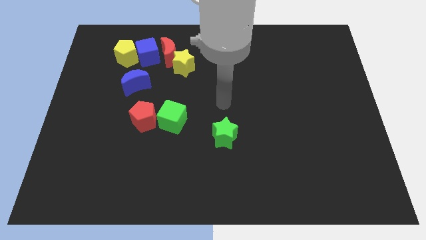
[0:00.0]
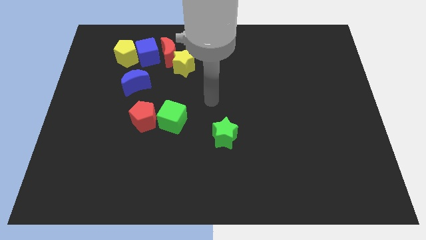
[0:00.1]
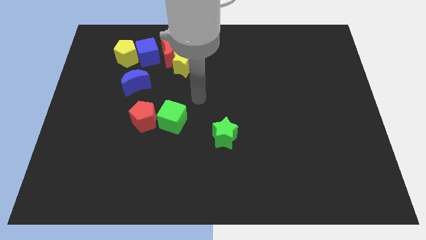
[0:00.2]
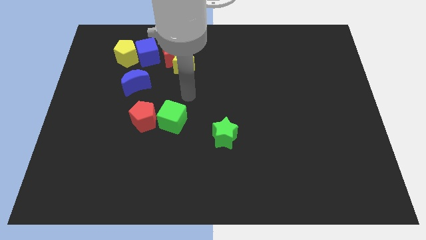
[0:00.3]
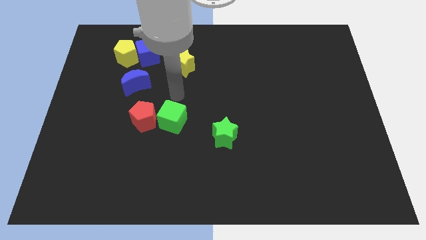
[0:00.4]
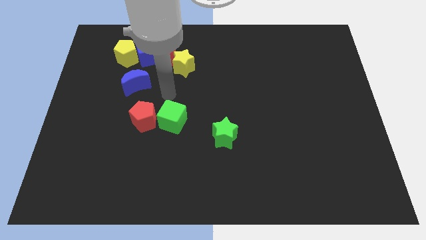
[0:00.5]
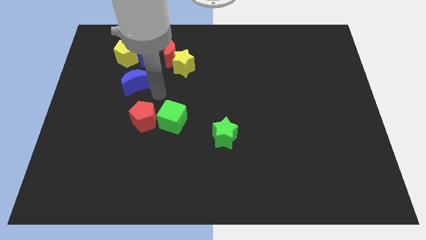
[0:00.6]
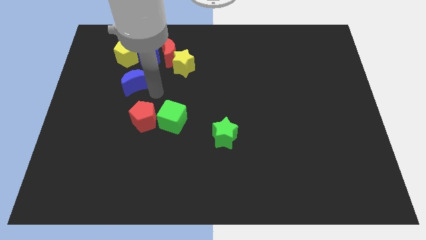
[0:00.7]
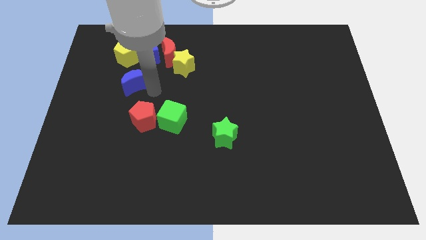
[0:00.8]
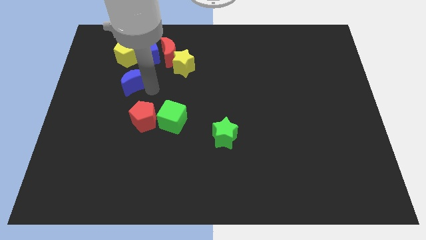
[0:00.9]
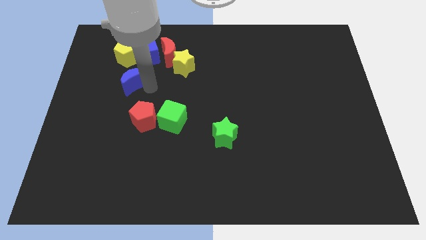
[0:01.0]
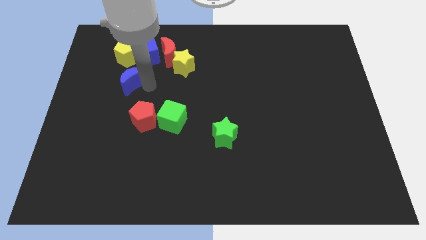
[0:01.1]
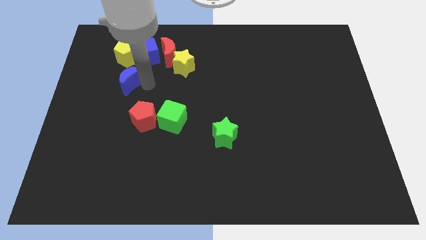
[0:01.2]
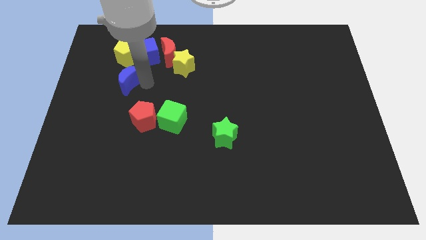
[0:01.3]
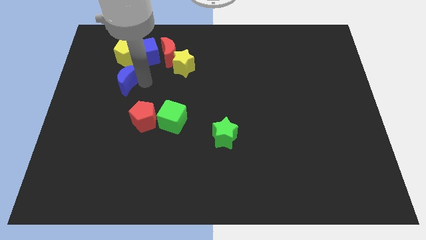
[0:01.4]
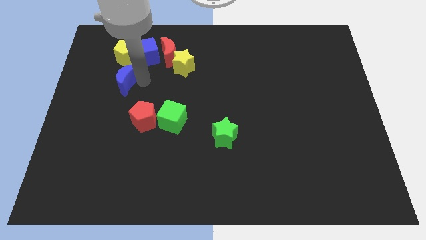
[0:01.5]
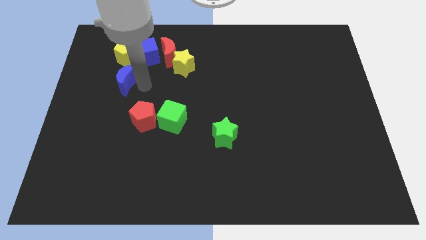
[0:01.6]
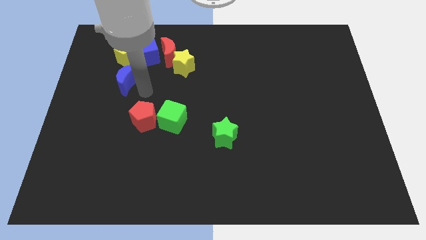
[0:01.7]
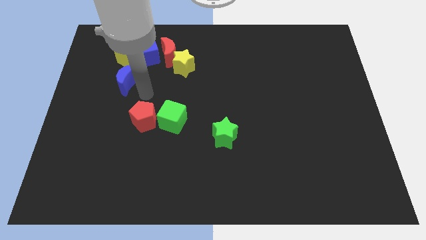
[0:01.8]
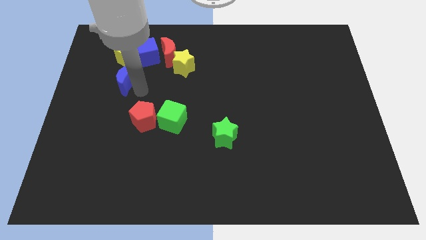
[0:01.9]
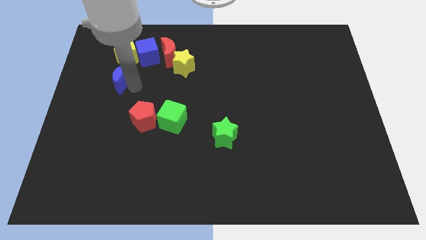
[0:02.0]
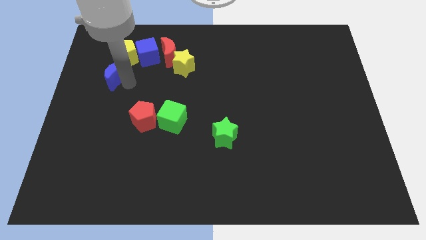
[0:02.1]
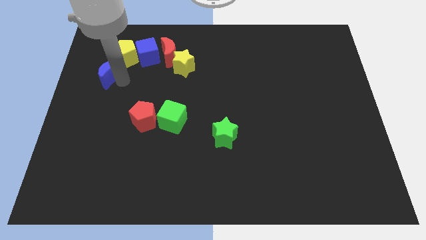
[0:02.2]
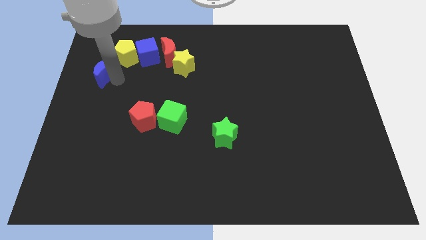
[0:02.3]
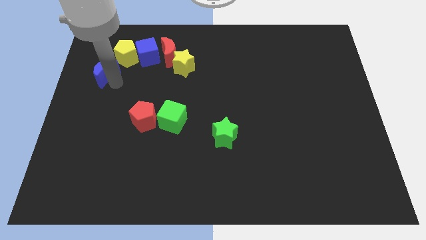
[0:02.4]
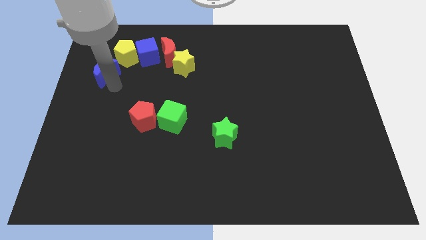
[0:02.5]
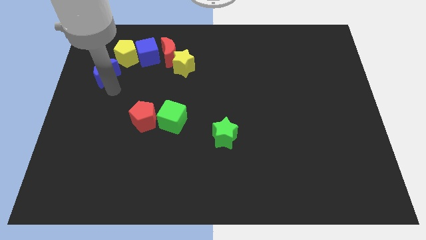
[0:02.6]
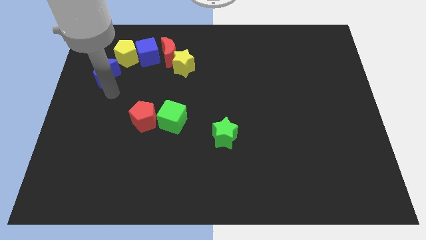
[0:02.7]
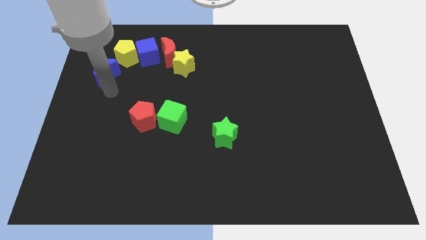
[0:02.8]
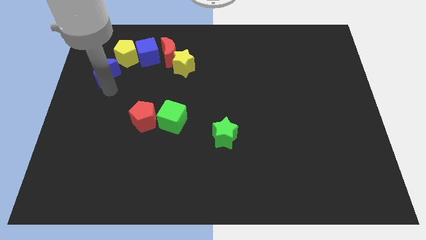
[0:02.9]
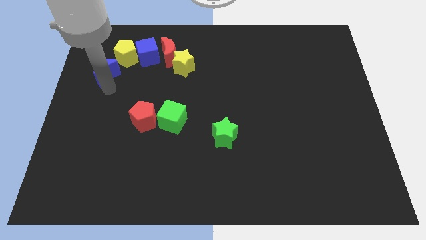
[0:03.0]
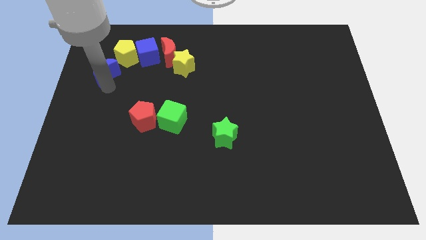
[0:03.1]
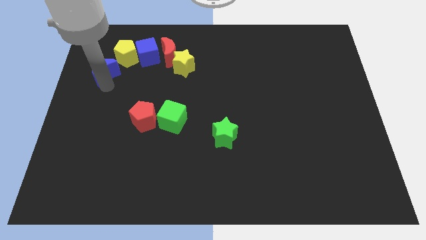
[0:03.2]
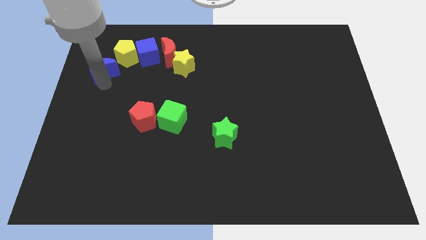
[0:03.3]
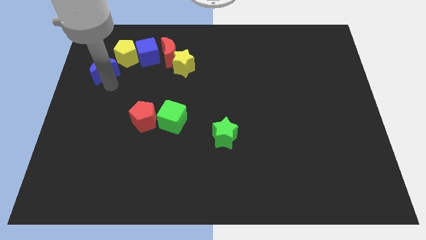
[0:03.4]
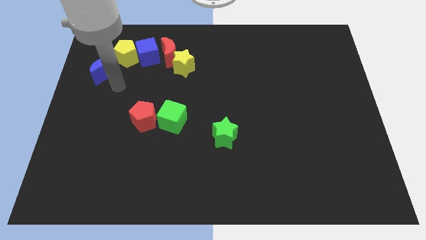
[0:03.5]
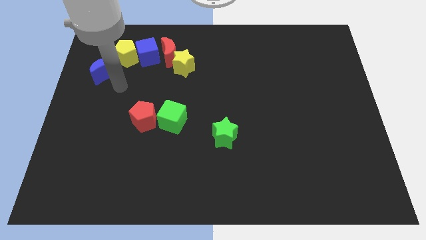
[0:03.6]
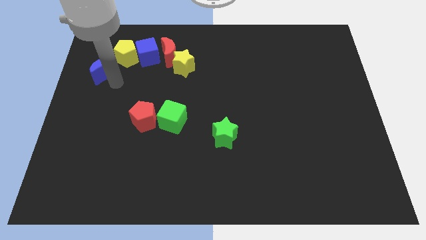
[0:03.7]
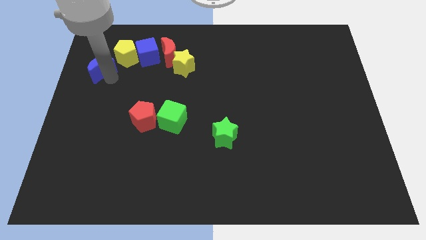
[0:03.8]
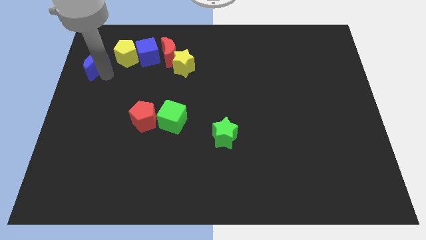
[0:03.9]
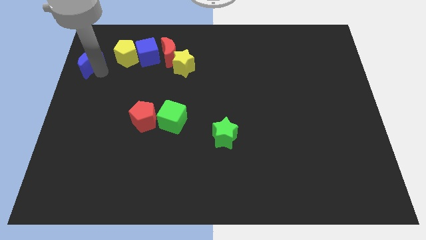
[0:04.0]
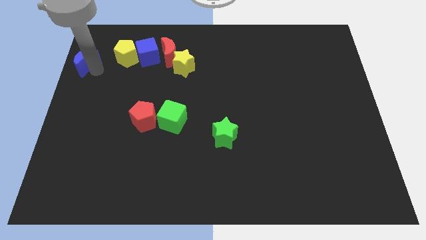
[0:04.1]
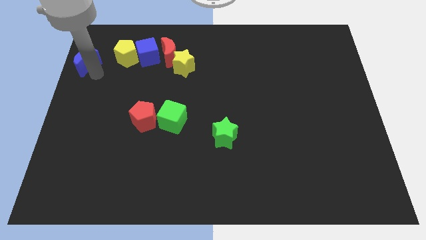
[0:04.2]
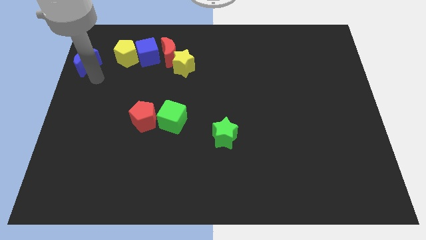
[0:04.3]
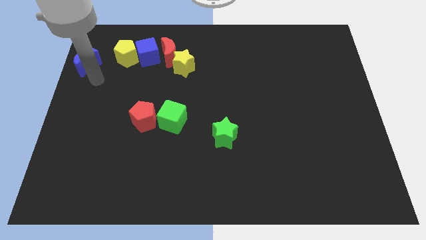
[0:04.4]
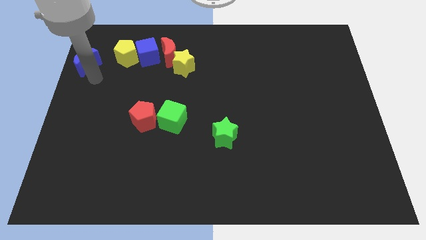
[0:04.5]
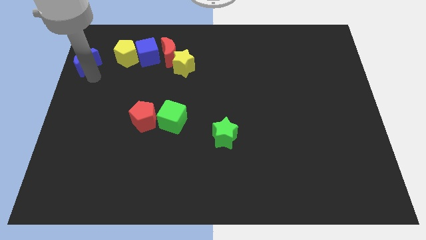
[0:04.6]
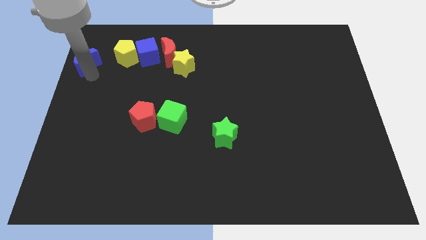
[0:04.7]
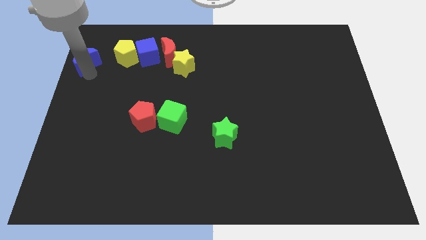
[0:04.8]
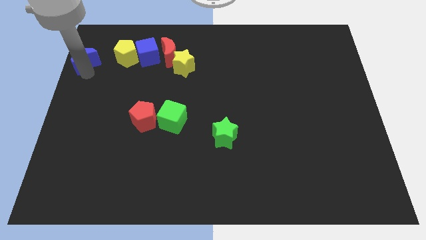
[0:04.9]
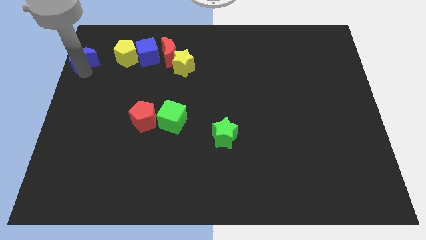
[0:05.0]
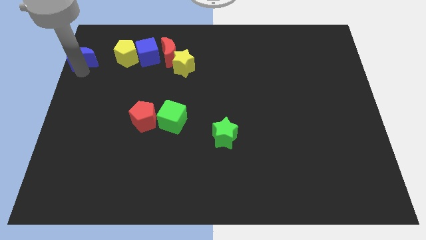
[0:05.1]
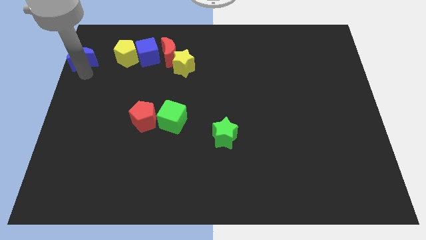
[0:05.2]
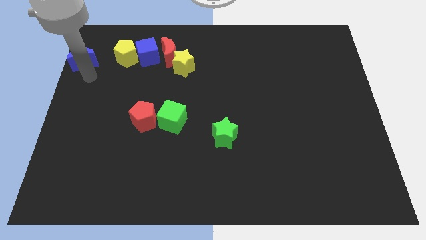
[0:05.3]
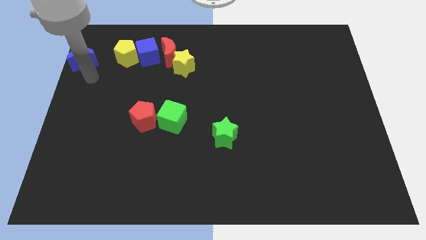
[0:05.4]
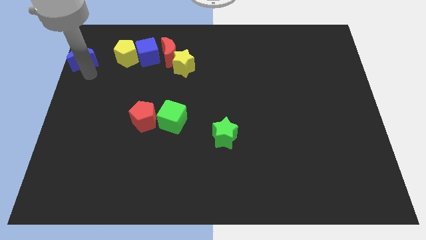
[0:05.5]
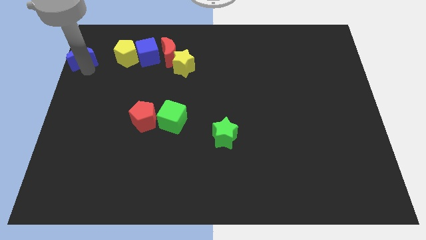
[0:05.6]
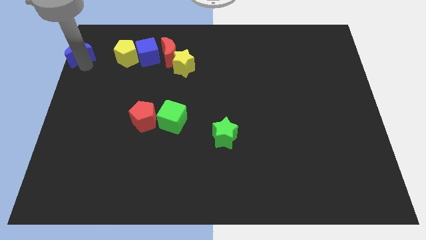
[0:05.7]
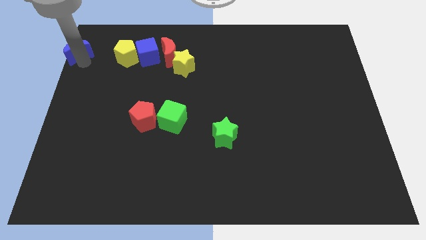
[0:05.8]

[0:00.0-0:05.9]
push the blue moon to the top left of the board

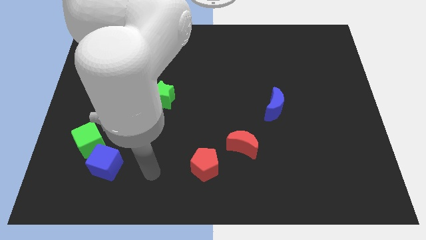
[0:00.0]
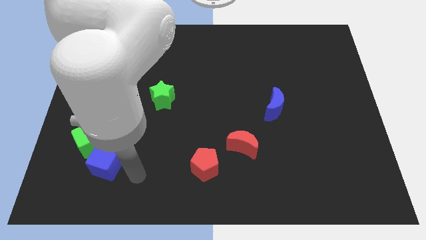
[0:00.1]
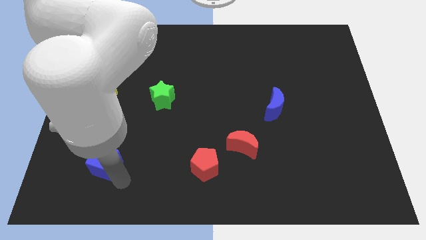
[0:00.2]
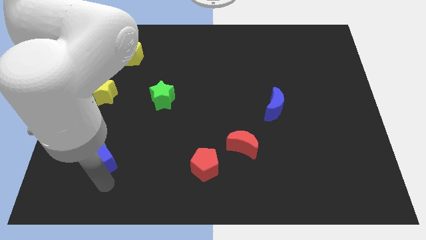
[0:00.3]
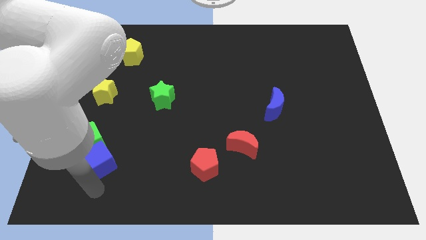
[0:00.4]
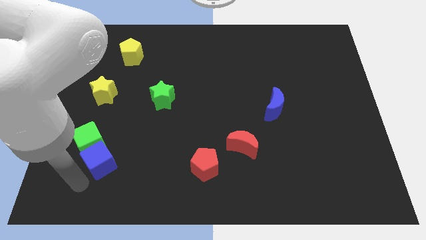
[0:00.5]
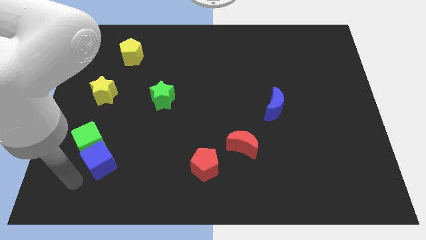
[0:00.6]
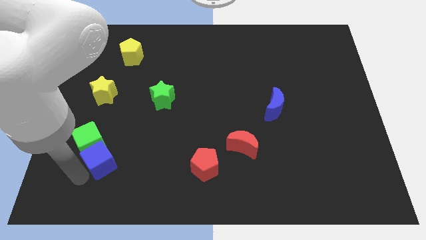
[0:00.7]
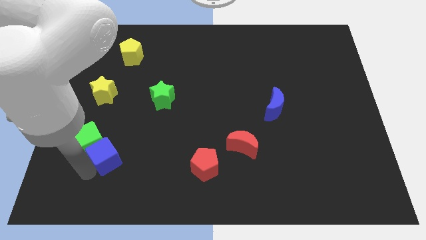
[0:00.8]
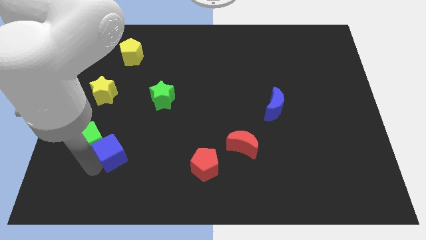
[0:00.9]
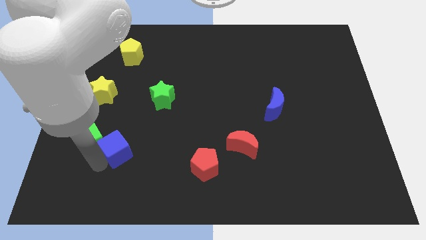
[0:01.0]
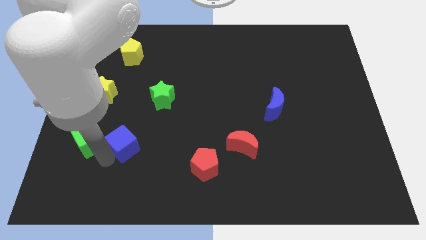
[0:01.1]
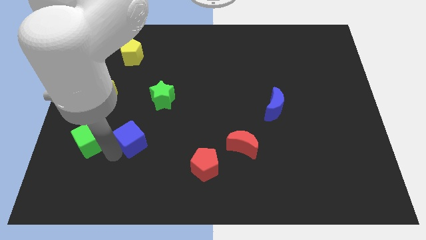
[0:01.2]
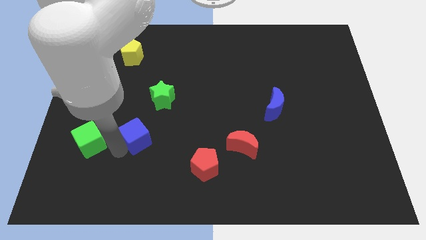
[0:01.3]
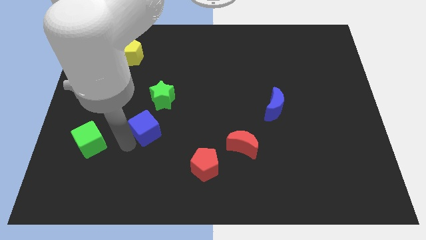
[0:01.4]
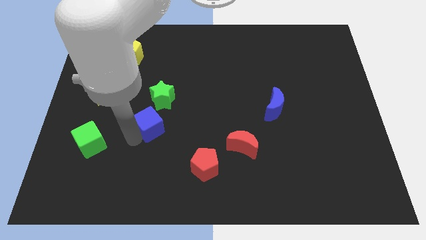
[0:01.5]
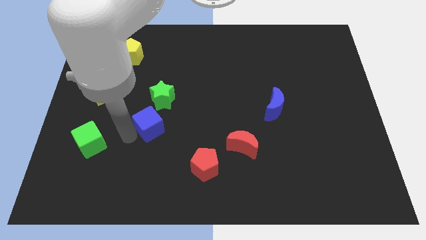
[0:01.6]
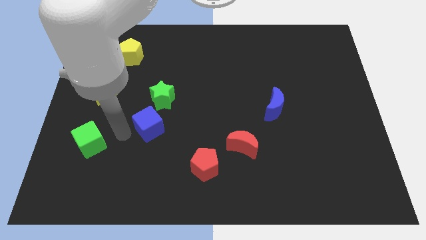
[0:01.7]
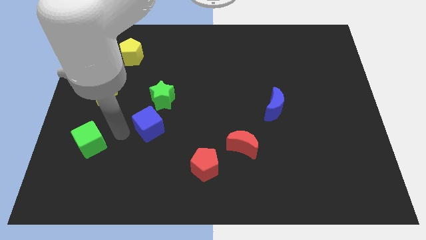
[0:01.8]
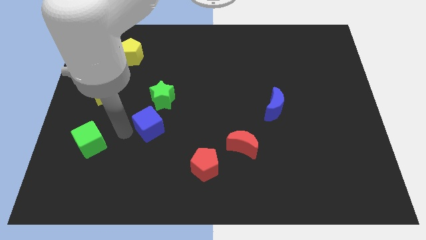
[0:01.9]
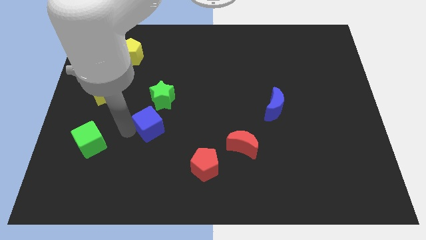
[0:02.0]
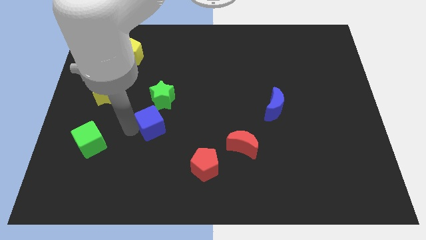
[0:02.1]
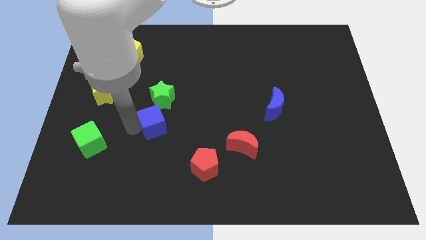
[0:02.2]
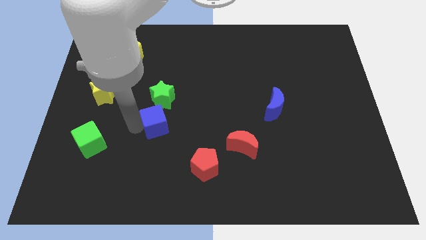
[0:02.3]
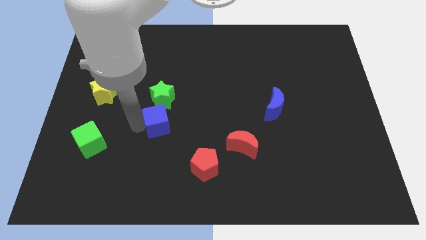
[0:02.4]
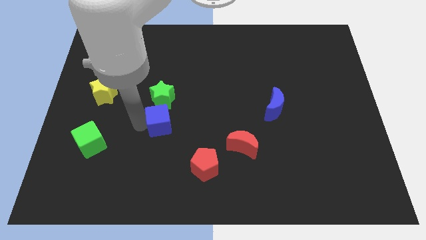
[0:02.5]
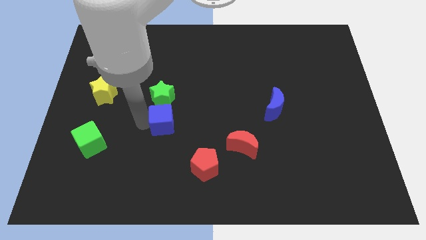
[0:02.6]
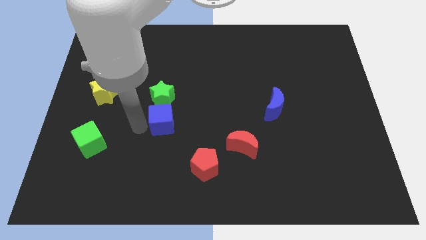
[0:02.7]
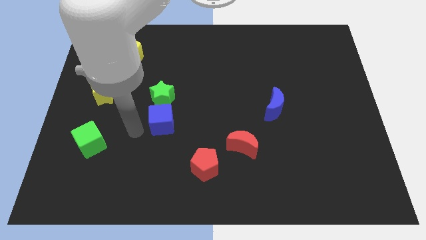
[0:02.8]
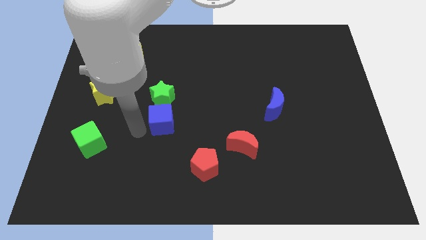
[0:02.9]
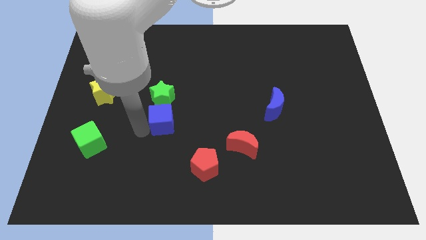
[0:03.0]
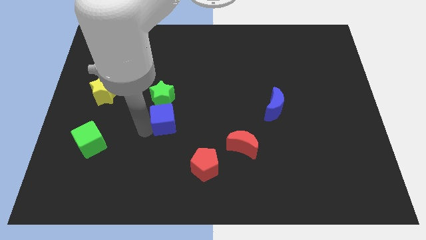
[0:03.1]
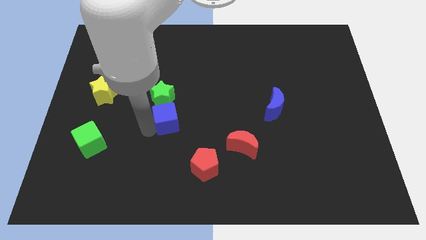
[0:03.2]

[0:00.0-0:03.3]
slide the blue cube to the center of the board
